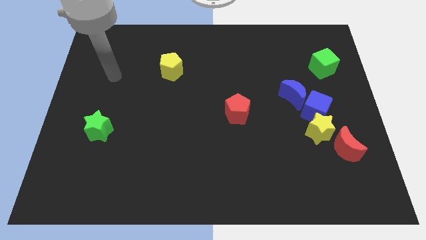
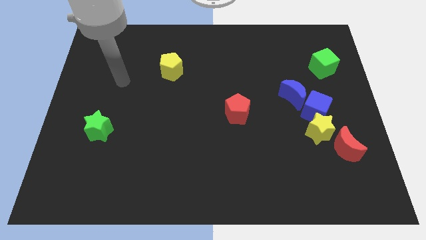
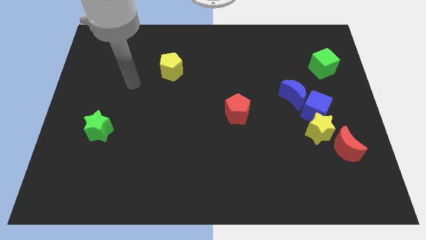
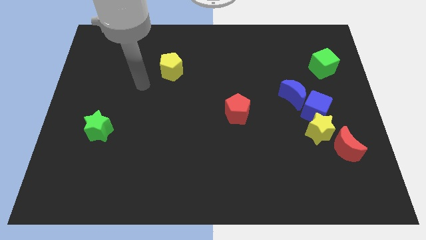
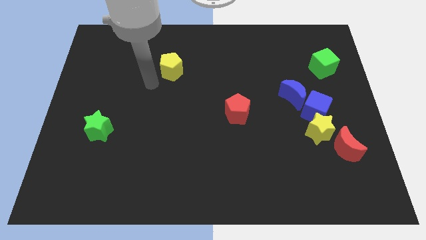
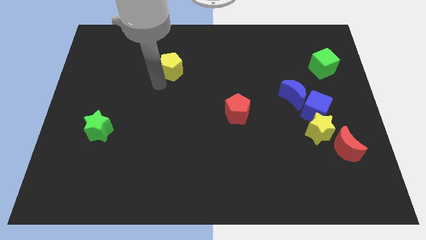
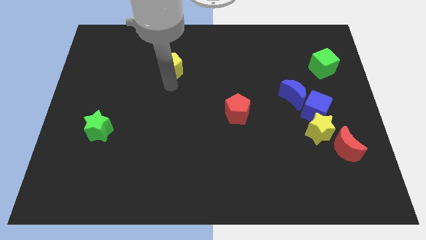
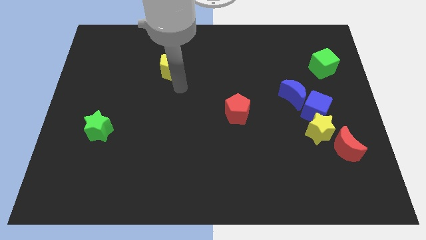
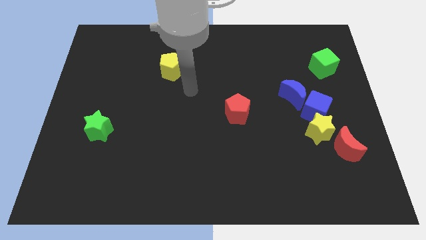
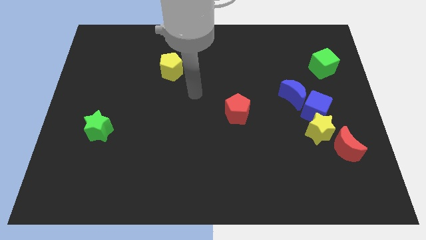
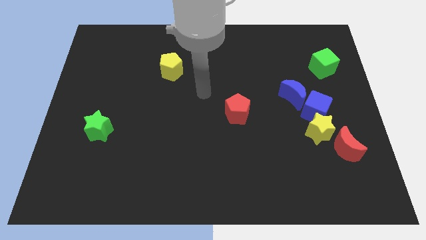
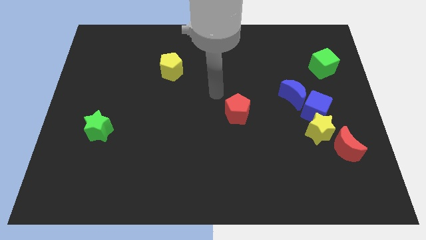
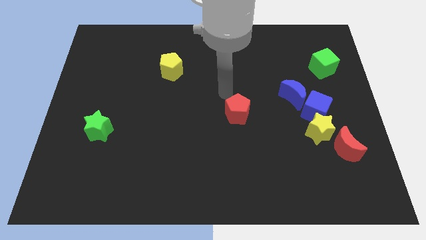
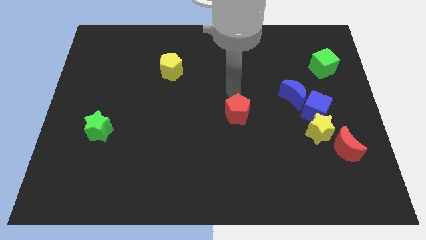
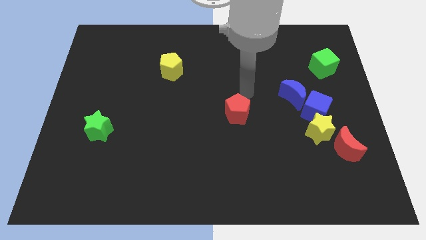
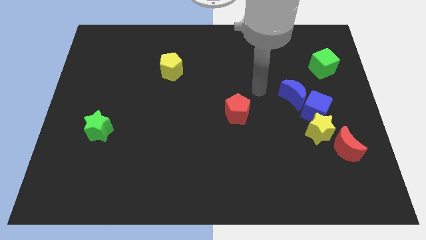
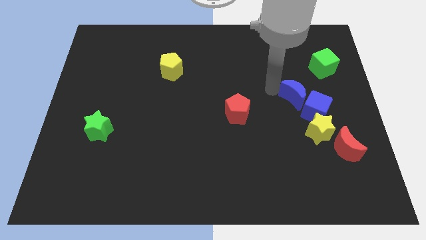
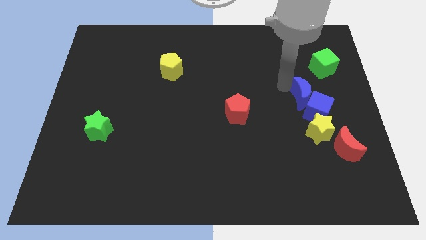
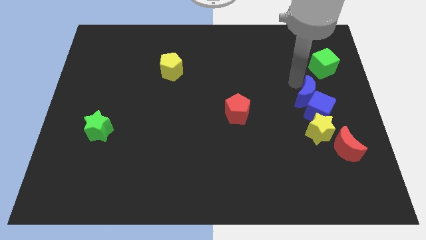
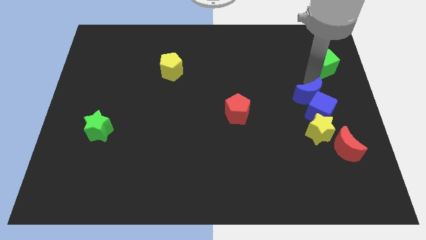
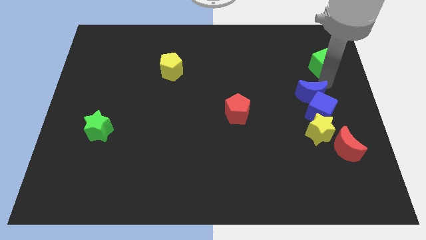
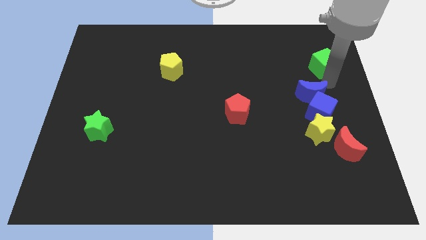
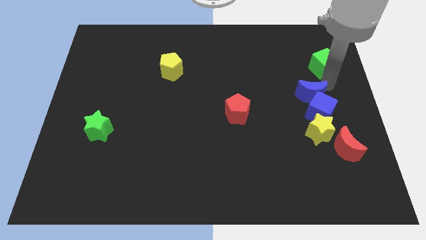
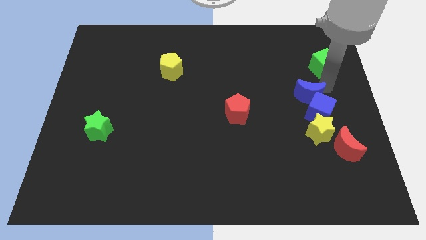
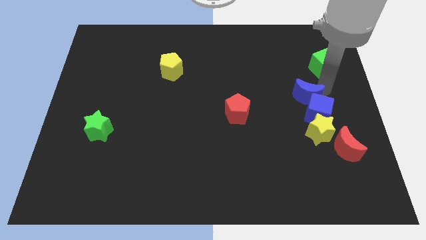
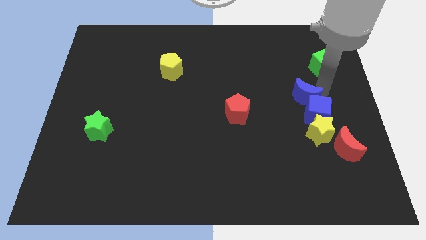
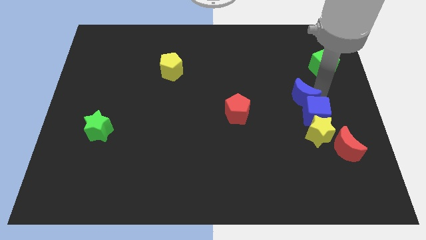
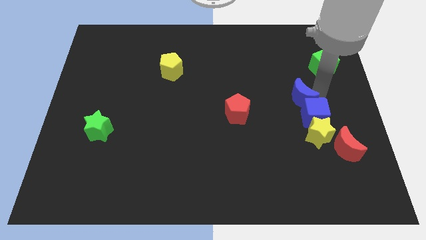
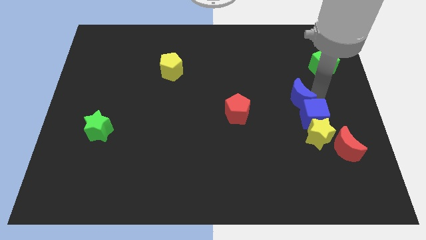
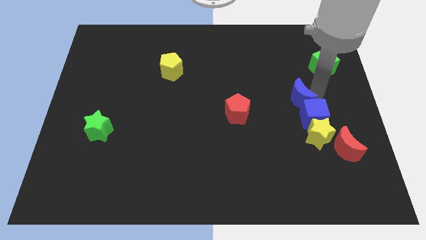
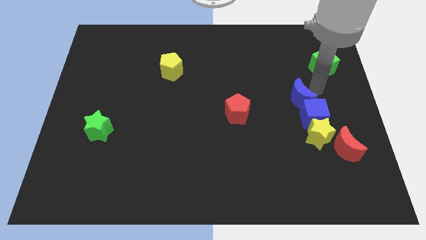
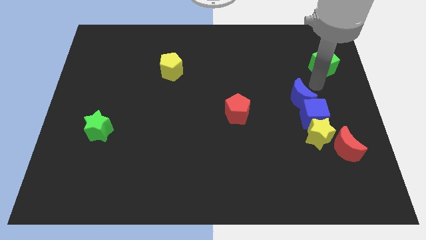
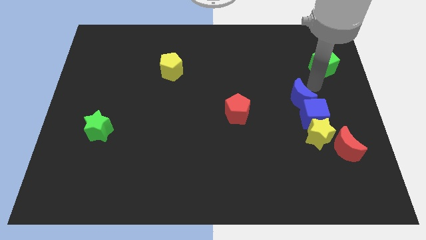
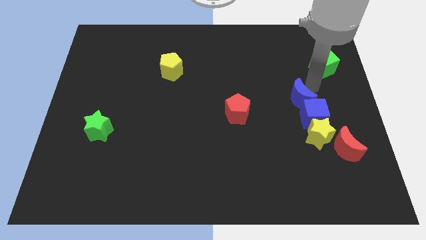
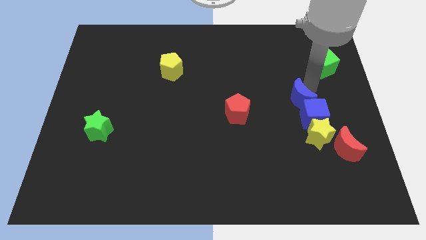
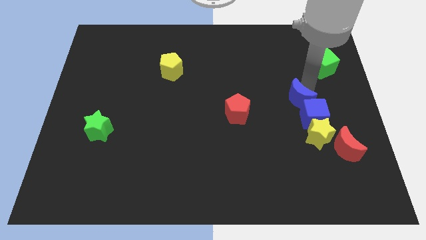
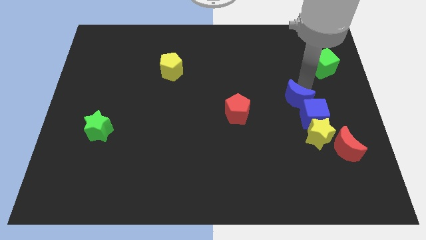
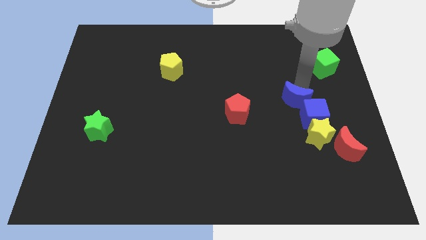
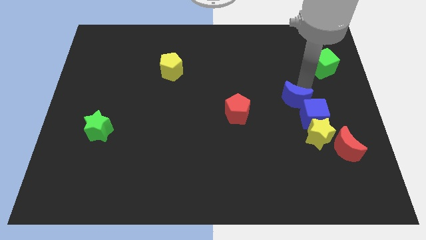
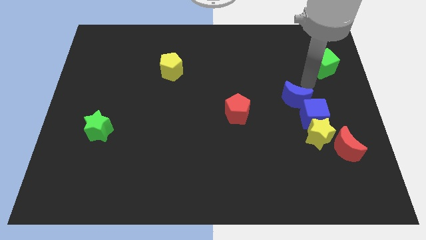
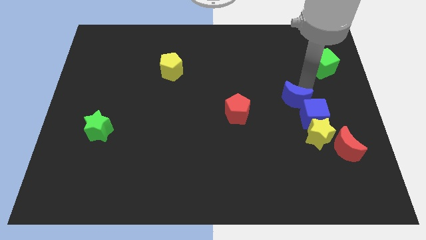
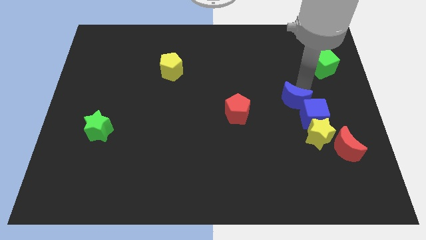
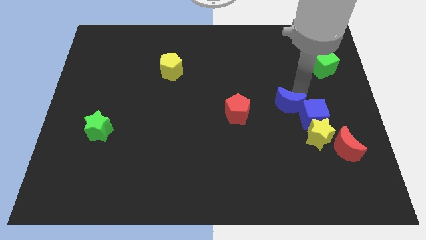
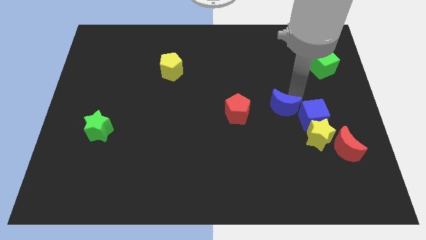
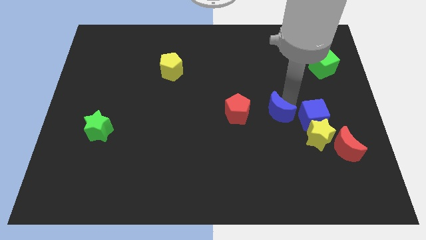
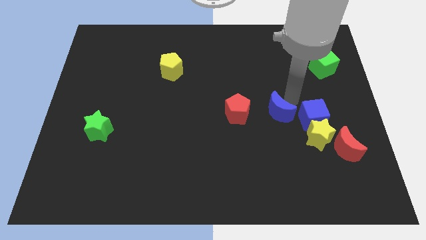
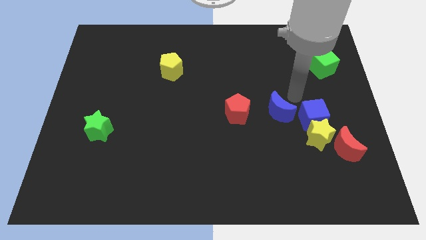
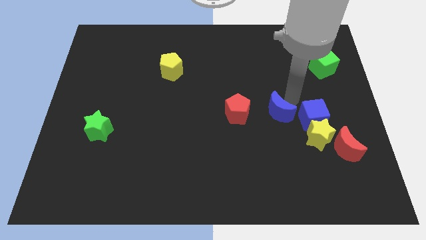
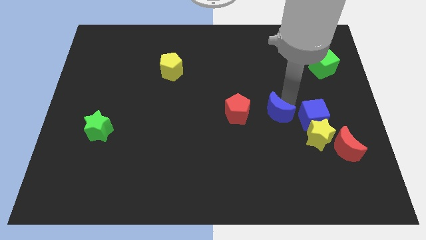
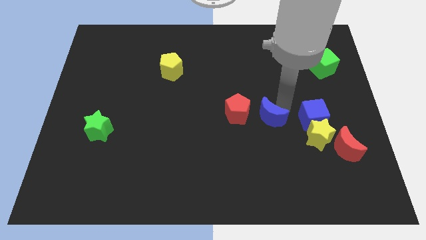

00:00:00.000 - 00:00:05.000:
push the blue moon downwards and then left a bit

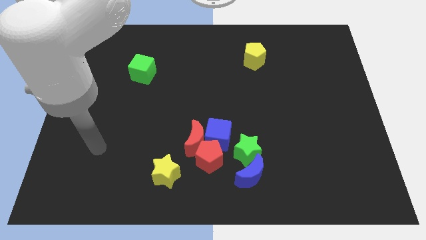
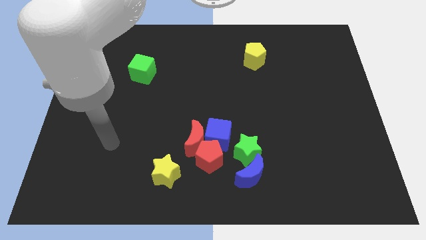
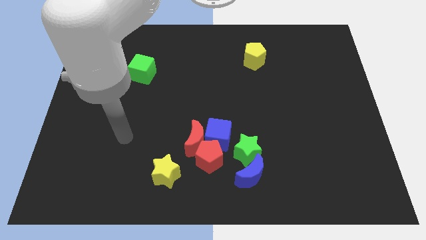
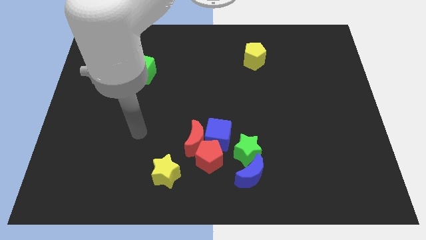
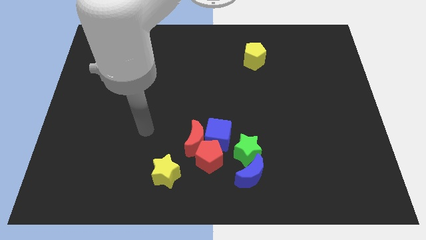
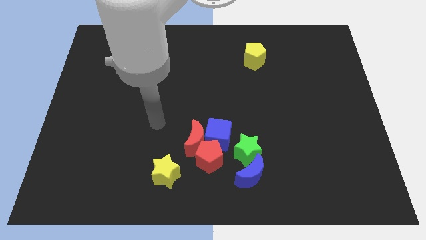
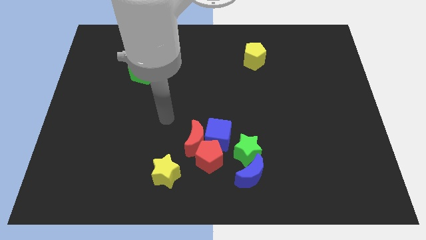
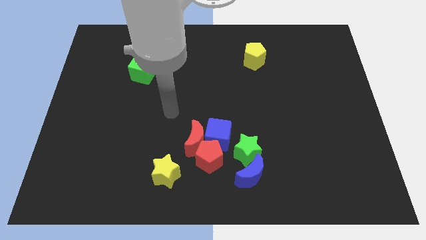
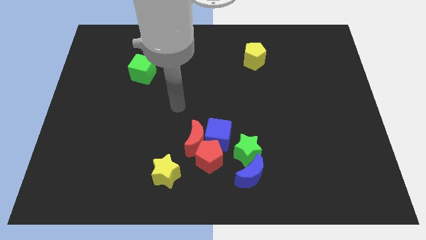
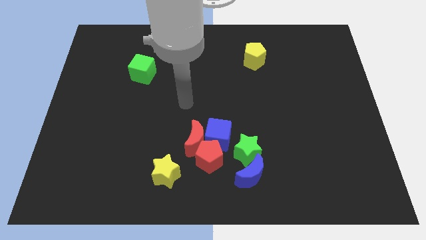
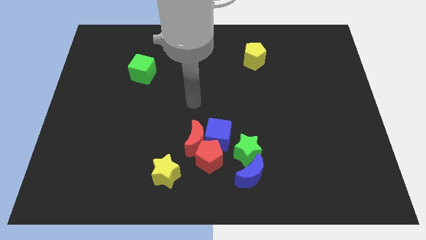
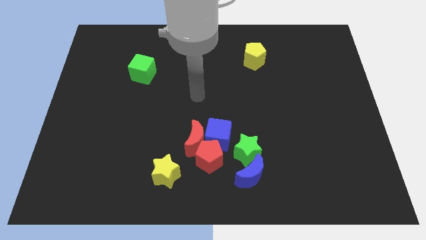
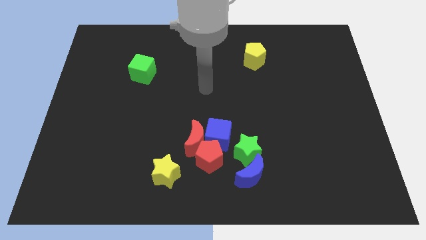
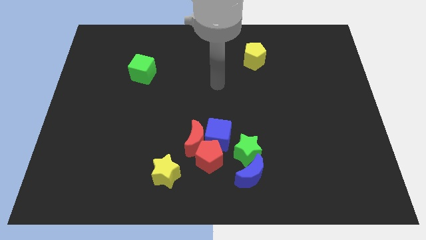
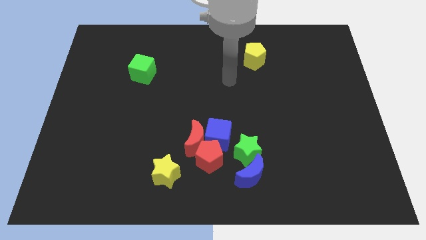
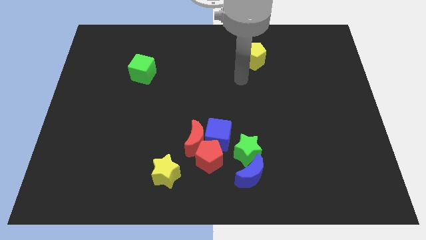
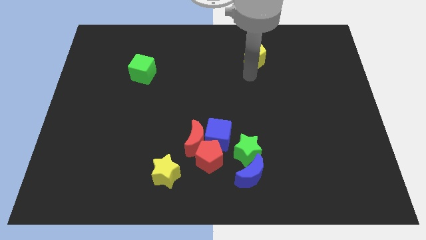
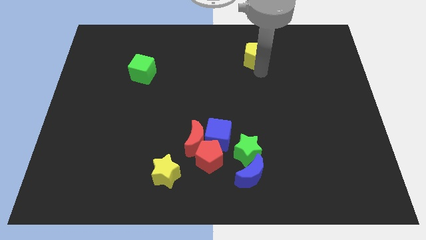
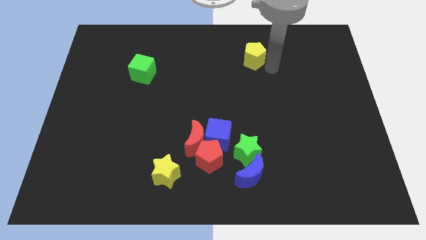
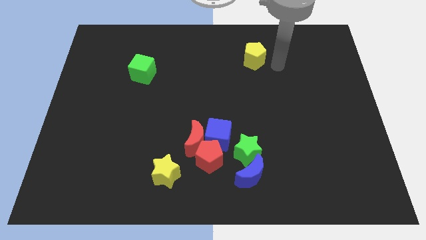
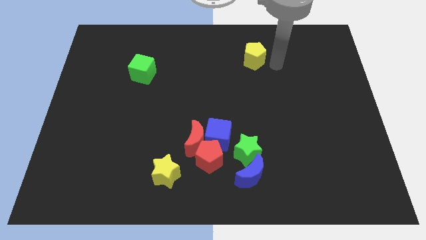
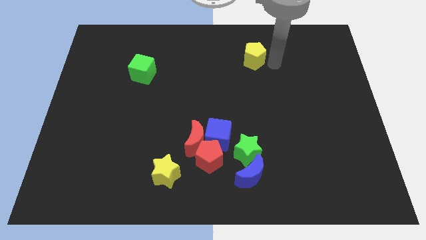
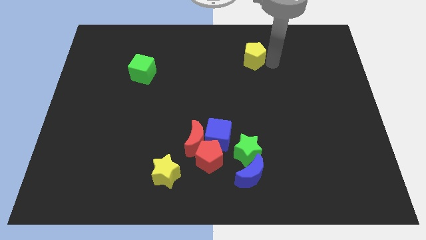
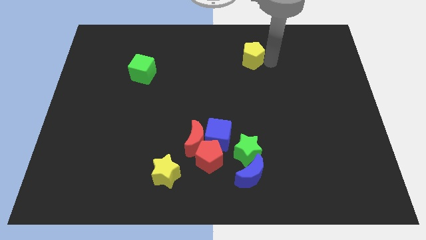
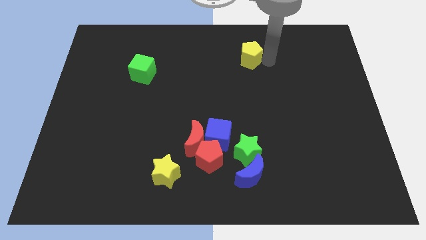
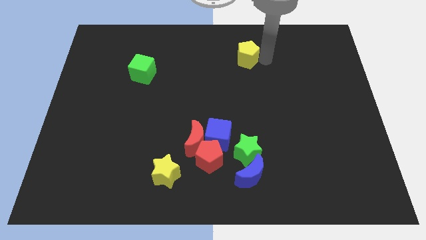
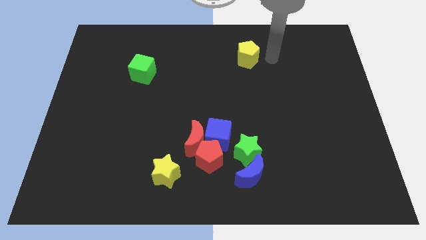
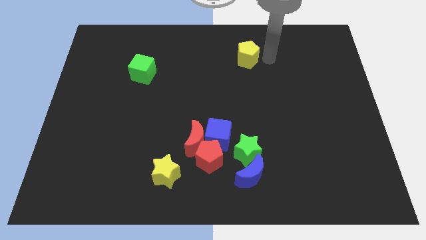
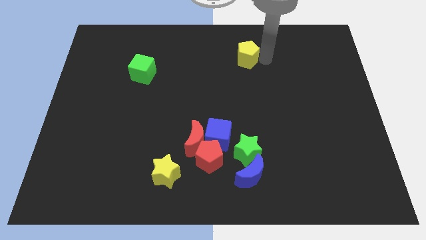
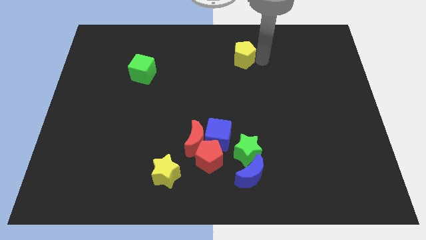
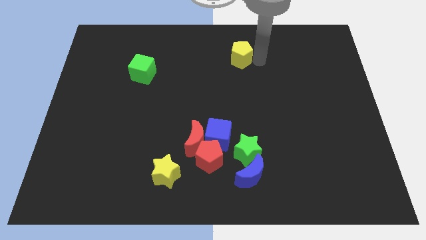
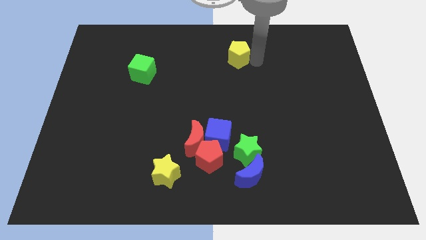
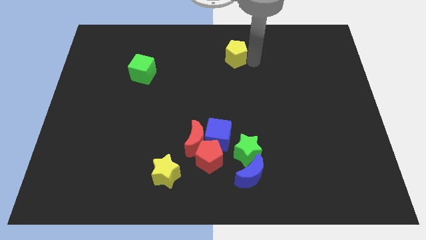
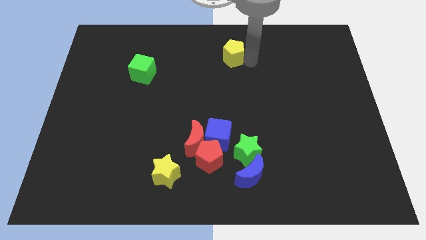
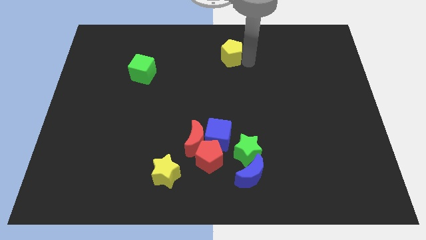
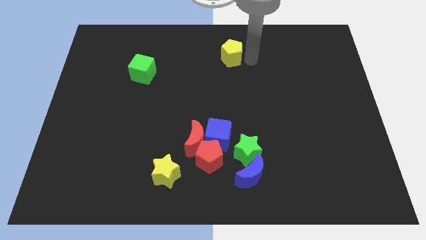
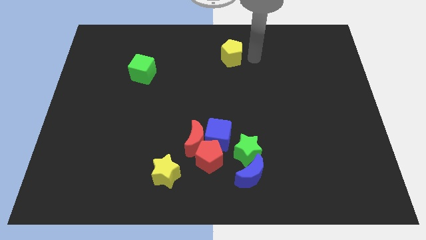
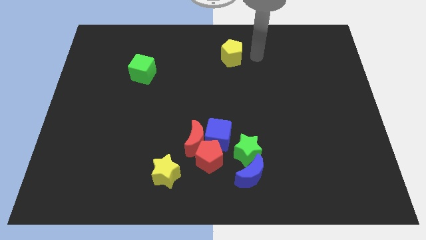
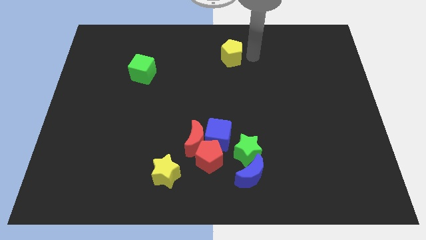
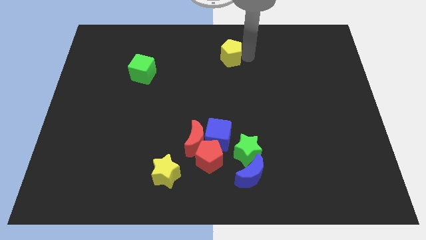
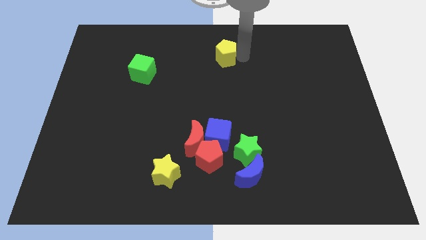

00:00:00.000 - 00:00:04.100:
slightly move the yellow pentagon left
